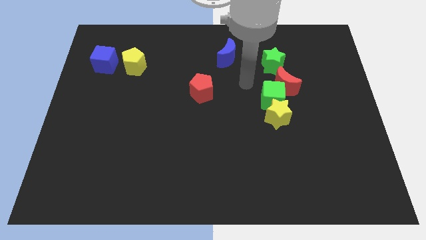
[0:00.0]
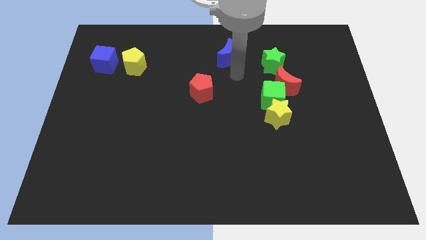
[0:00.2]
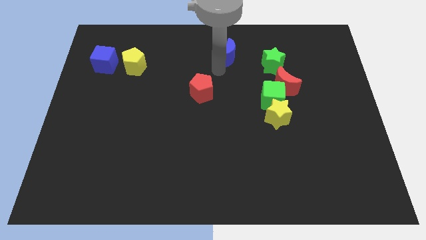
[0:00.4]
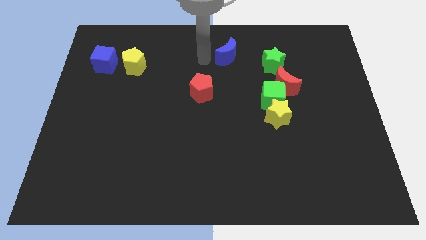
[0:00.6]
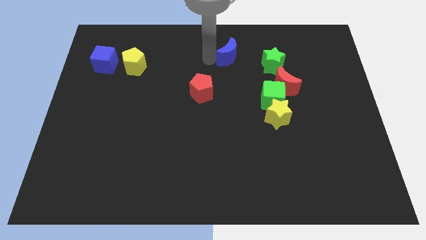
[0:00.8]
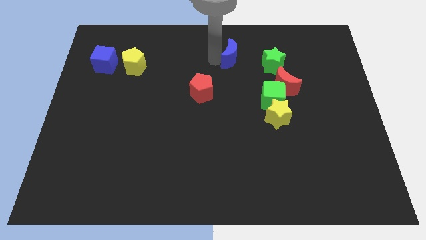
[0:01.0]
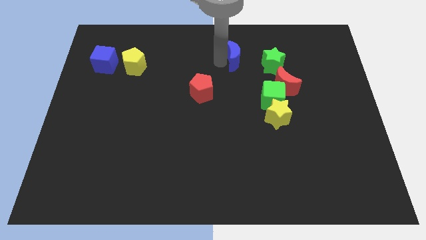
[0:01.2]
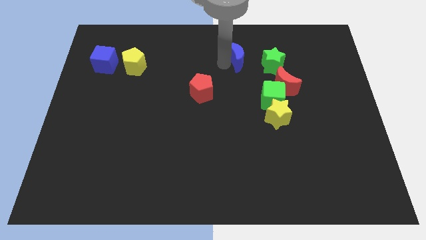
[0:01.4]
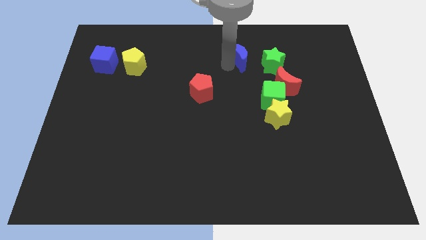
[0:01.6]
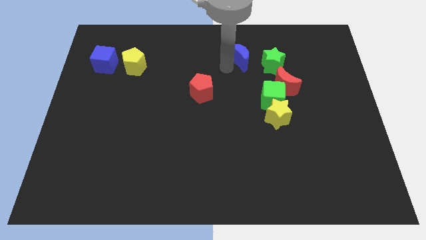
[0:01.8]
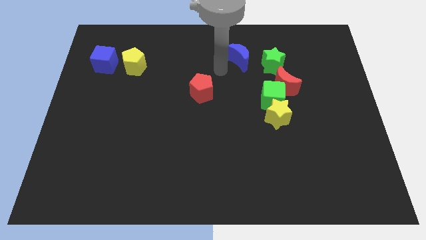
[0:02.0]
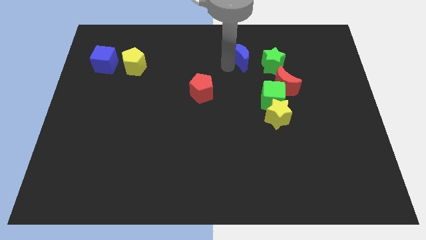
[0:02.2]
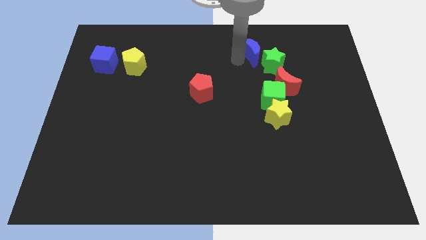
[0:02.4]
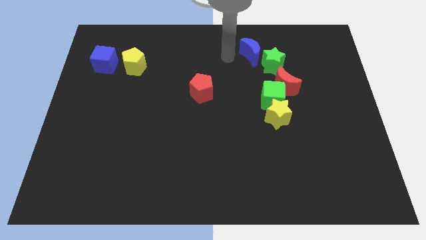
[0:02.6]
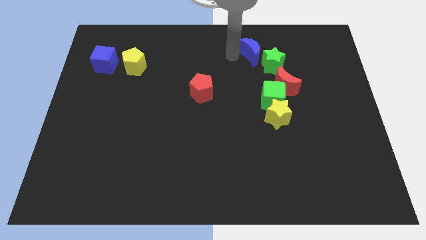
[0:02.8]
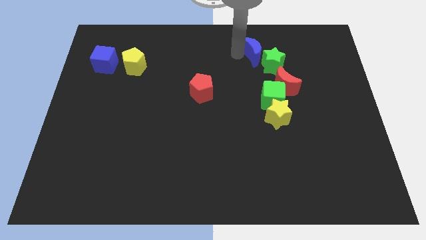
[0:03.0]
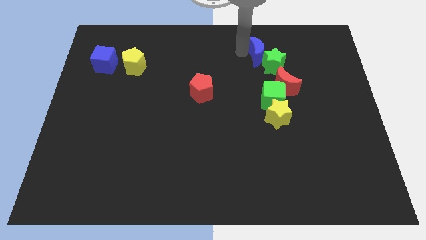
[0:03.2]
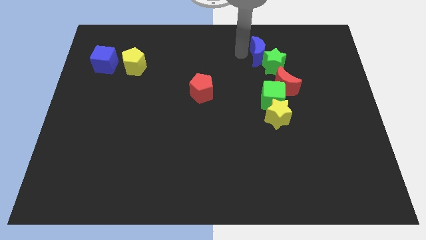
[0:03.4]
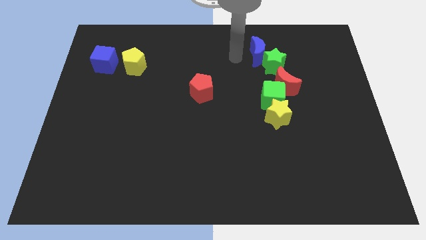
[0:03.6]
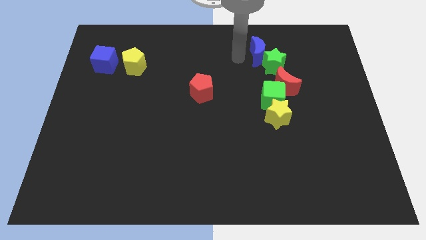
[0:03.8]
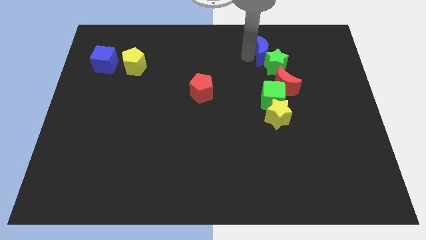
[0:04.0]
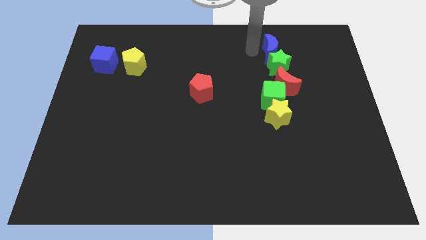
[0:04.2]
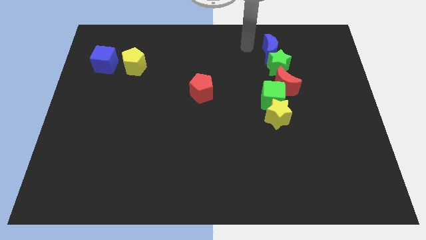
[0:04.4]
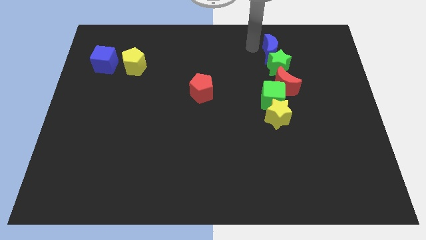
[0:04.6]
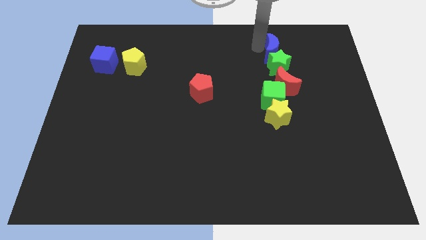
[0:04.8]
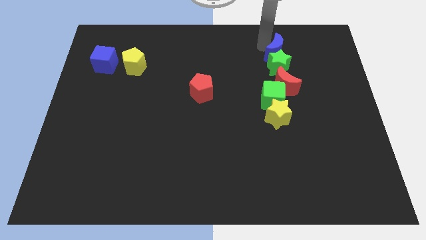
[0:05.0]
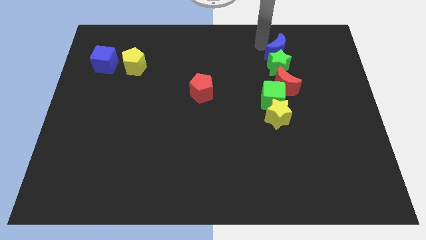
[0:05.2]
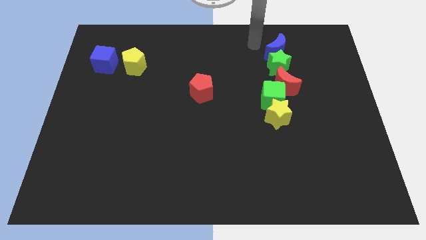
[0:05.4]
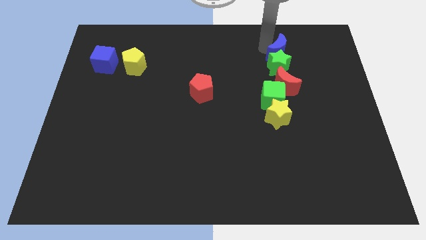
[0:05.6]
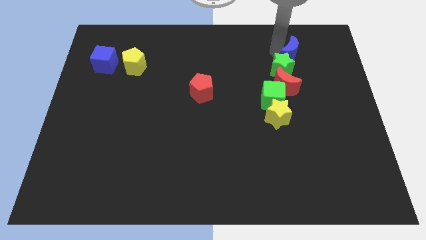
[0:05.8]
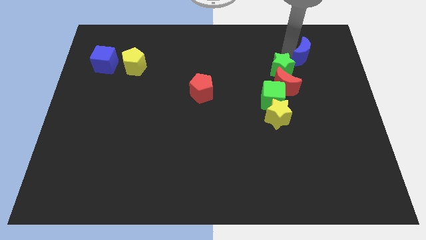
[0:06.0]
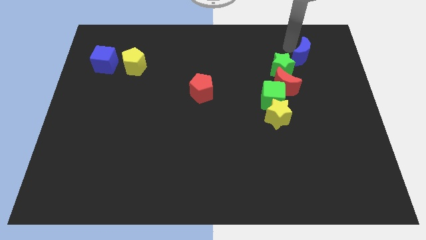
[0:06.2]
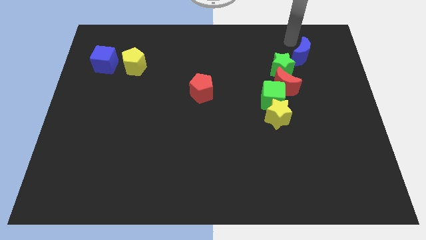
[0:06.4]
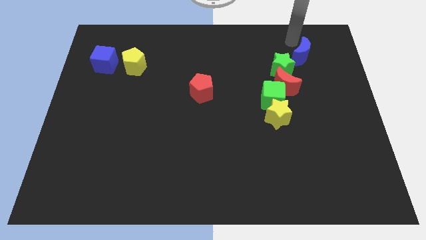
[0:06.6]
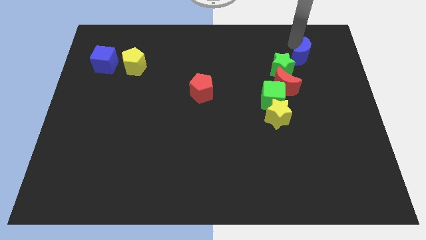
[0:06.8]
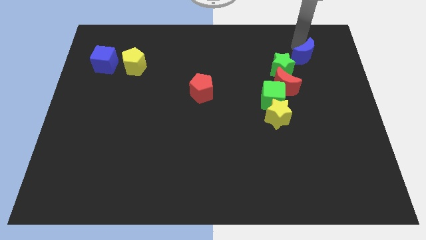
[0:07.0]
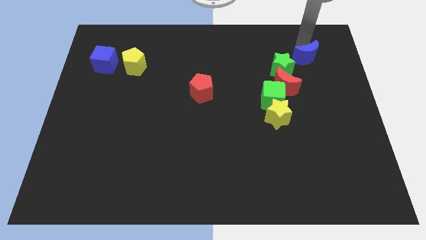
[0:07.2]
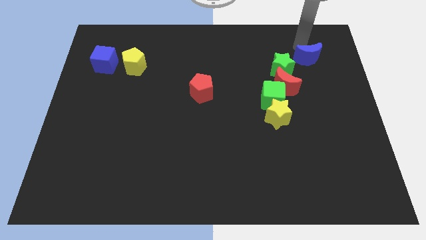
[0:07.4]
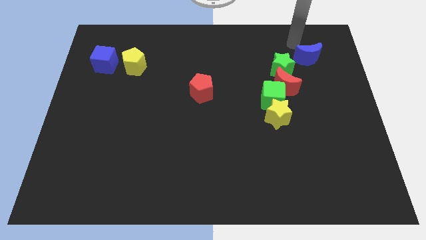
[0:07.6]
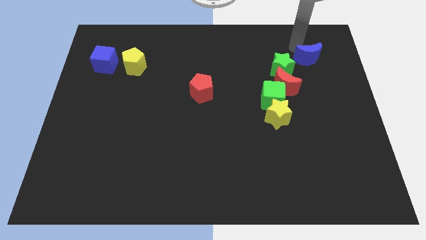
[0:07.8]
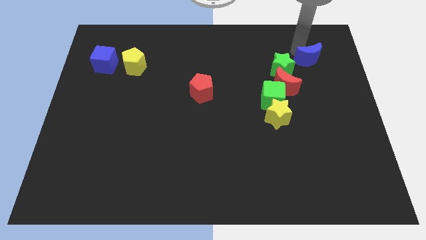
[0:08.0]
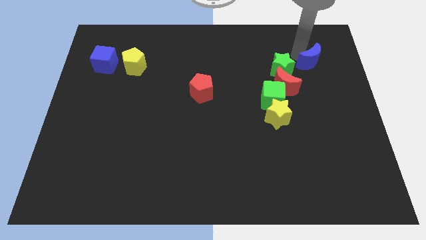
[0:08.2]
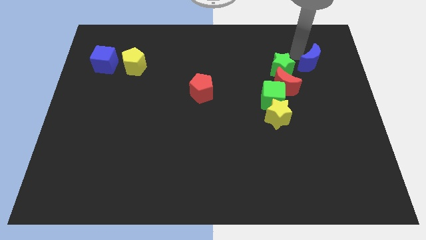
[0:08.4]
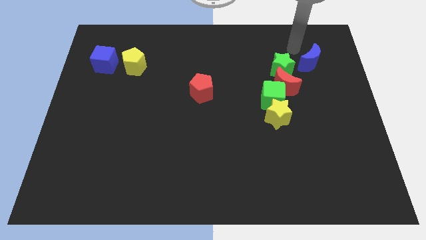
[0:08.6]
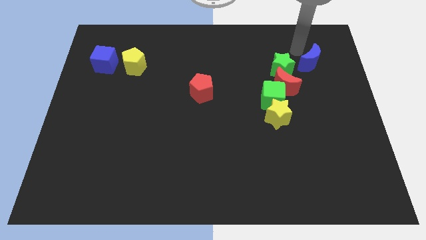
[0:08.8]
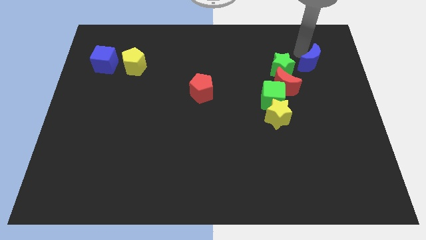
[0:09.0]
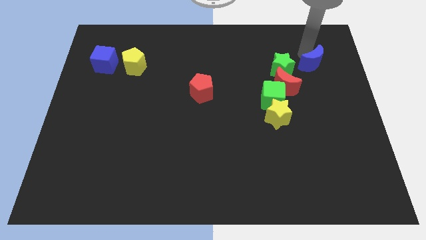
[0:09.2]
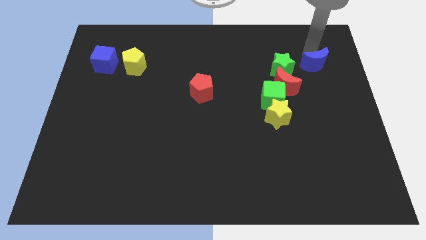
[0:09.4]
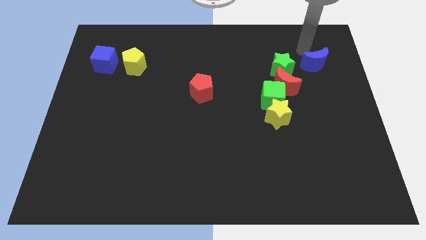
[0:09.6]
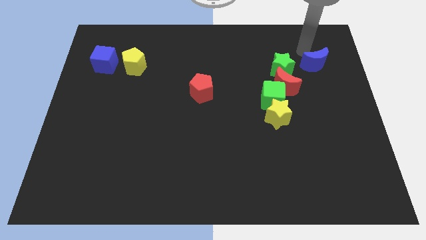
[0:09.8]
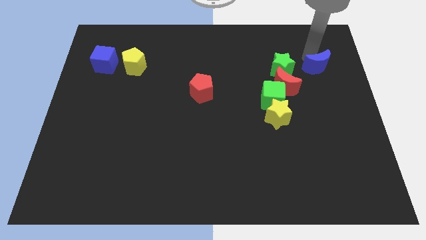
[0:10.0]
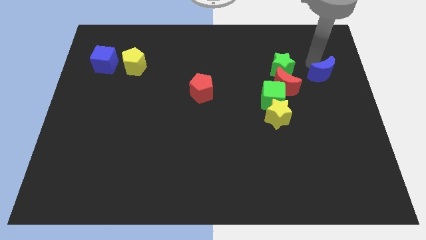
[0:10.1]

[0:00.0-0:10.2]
move the blue moon to the right side of the board
